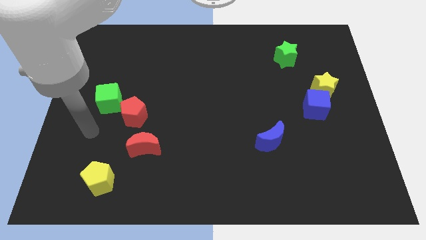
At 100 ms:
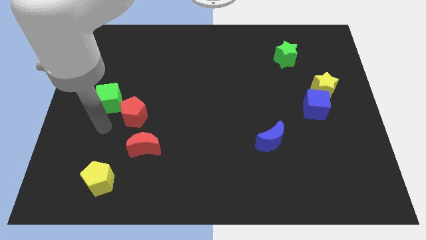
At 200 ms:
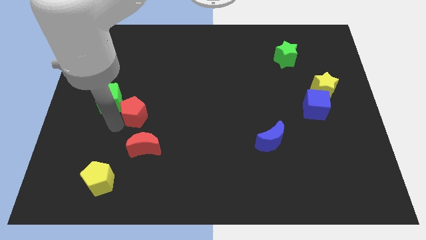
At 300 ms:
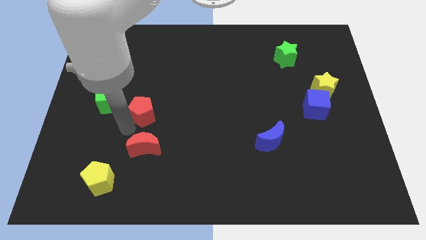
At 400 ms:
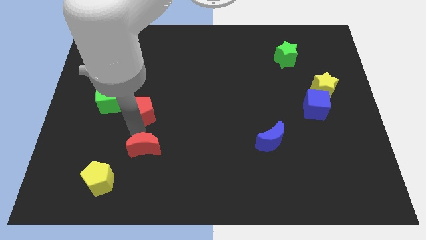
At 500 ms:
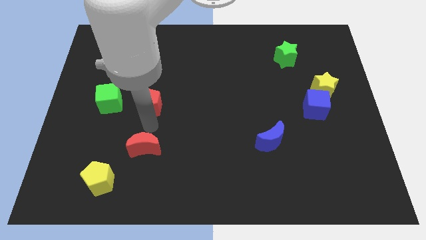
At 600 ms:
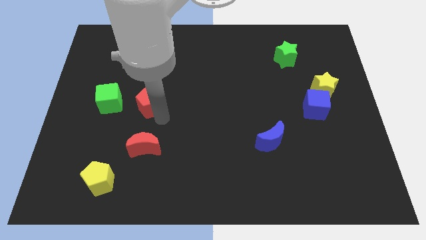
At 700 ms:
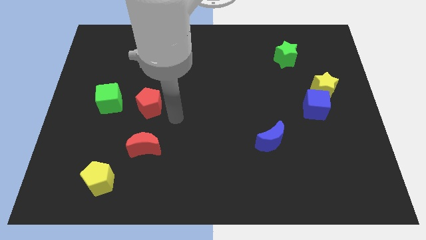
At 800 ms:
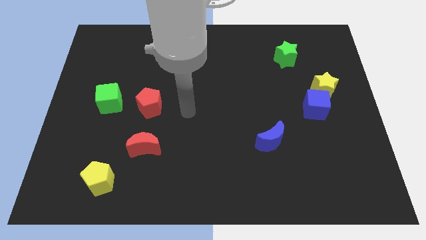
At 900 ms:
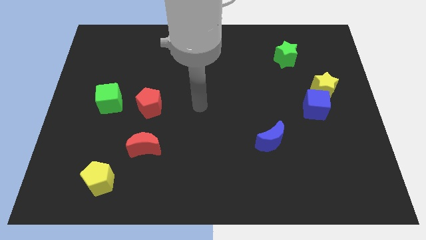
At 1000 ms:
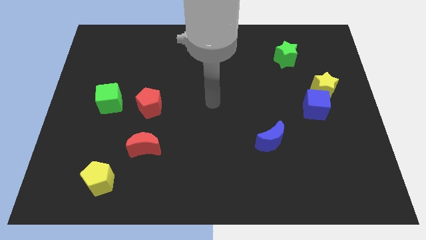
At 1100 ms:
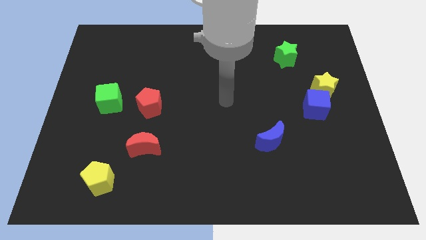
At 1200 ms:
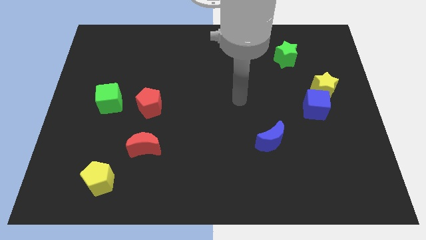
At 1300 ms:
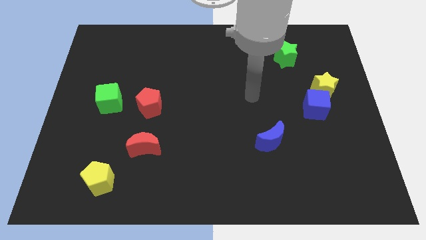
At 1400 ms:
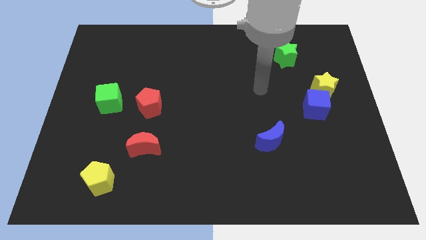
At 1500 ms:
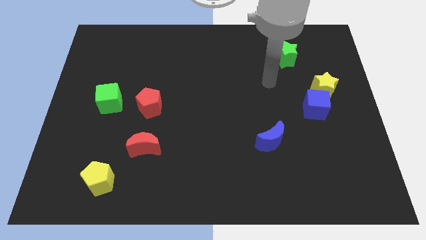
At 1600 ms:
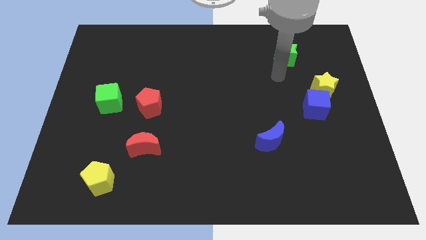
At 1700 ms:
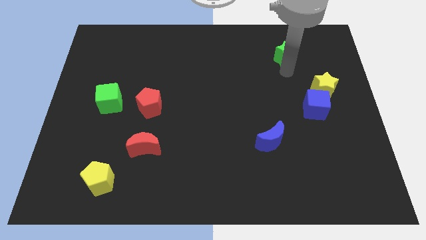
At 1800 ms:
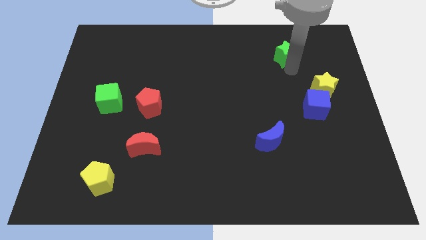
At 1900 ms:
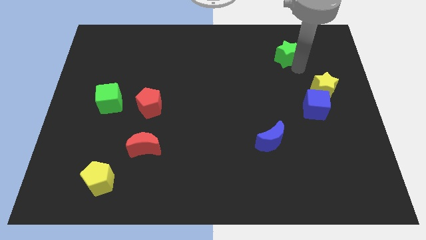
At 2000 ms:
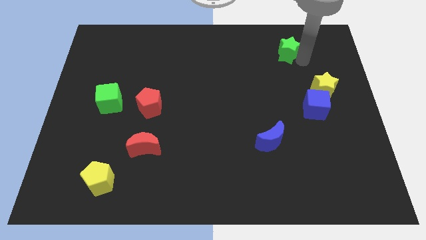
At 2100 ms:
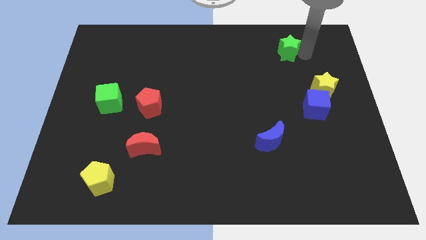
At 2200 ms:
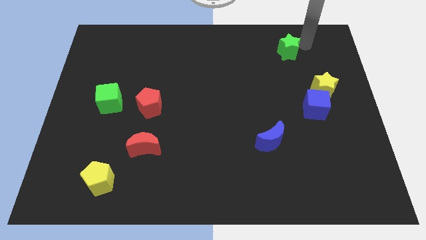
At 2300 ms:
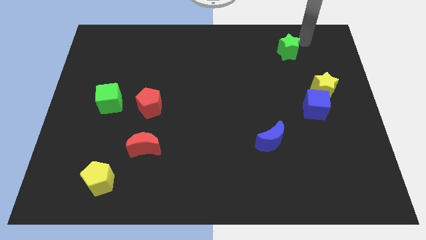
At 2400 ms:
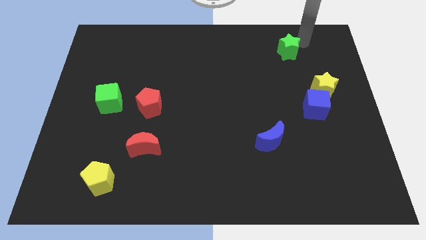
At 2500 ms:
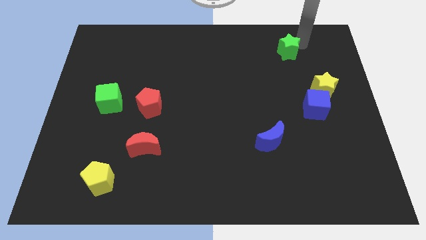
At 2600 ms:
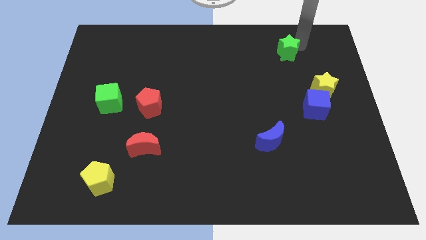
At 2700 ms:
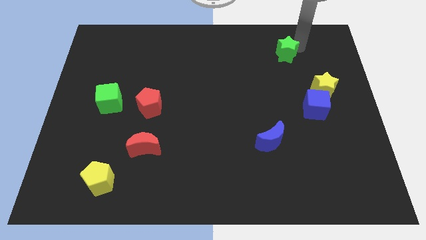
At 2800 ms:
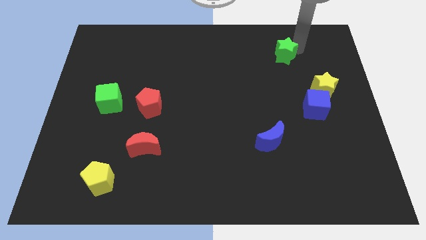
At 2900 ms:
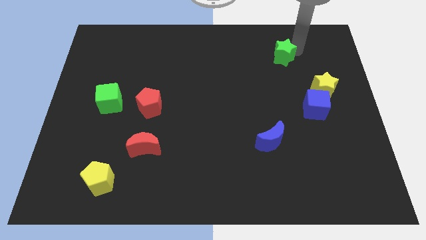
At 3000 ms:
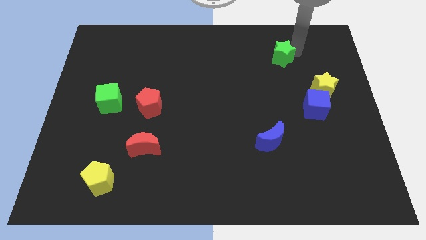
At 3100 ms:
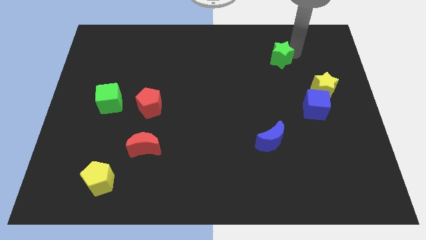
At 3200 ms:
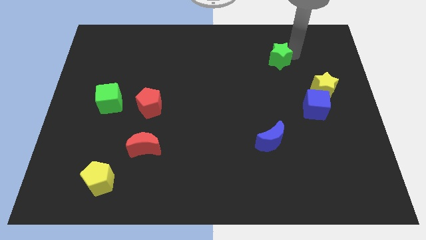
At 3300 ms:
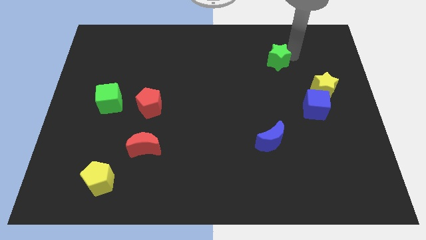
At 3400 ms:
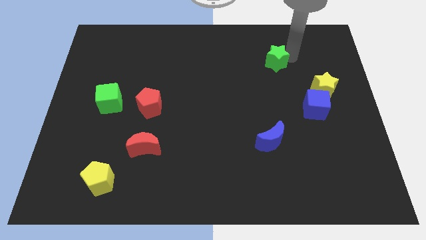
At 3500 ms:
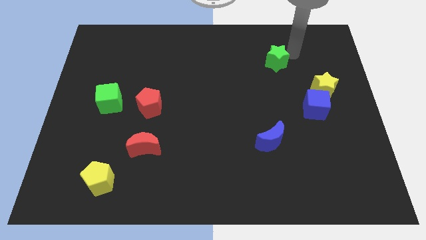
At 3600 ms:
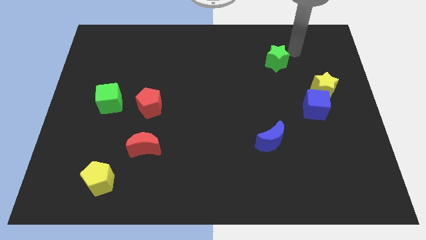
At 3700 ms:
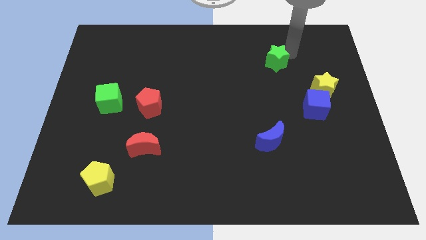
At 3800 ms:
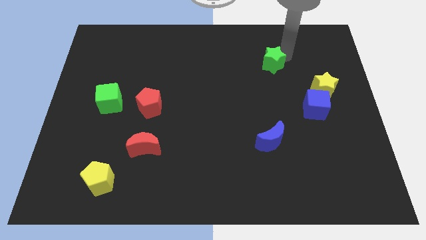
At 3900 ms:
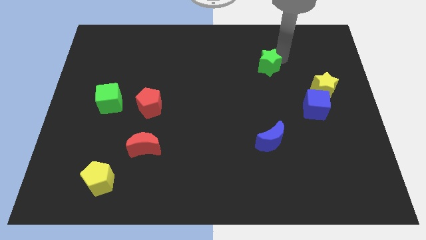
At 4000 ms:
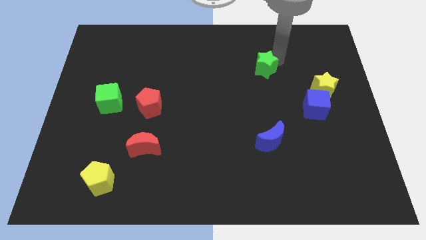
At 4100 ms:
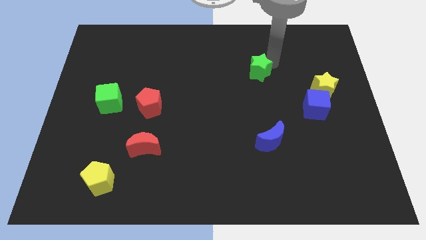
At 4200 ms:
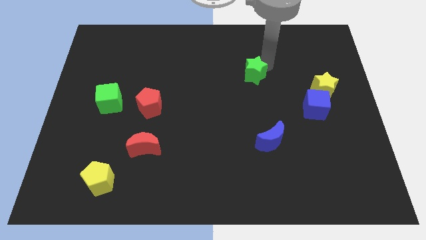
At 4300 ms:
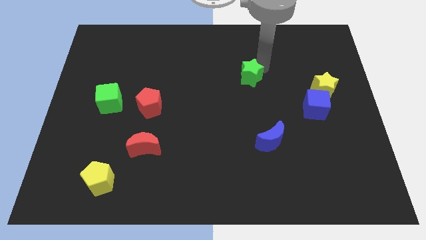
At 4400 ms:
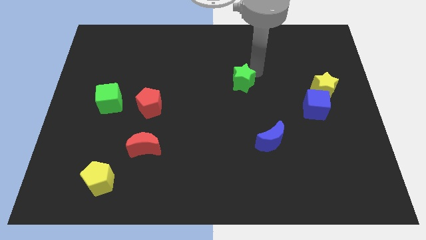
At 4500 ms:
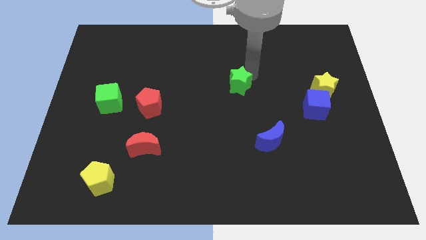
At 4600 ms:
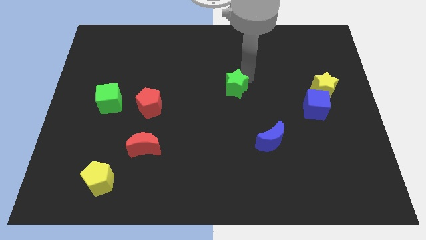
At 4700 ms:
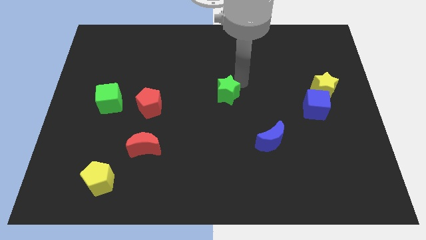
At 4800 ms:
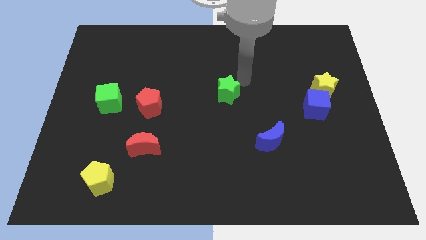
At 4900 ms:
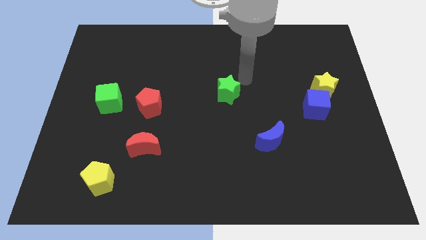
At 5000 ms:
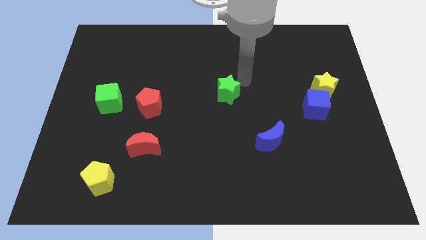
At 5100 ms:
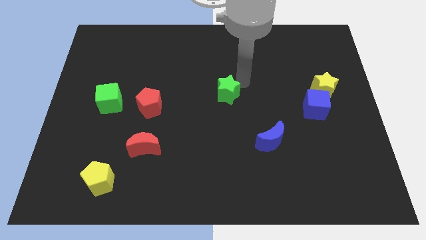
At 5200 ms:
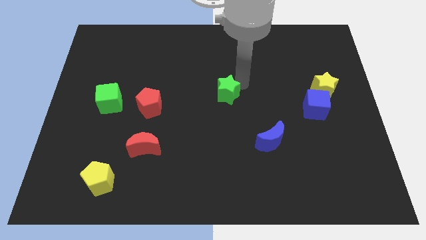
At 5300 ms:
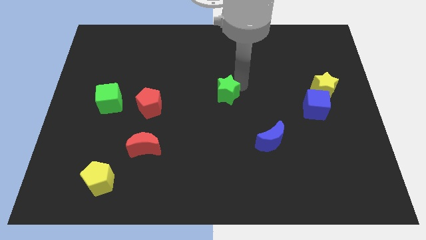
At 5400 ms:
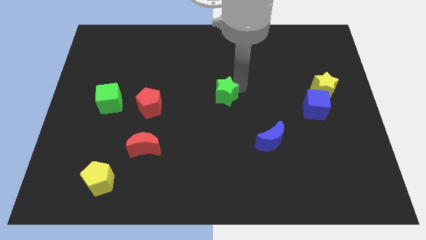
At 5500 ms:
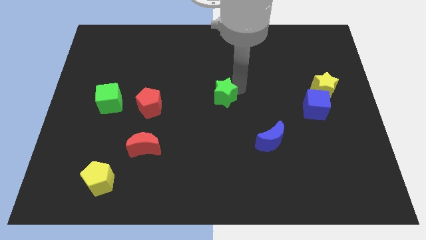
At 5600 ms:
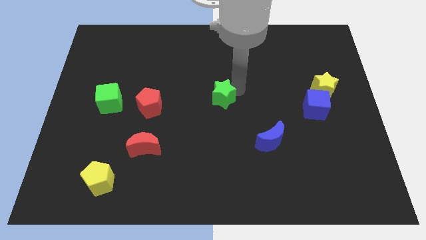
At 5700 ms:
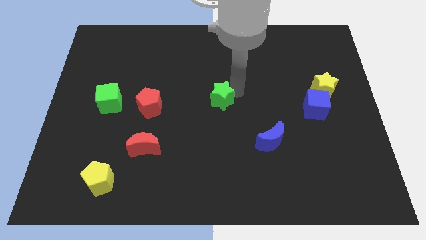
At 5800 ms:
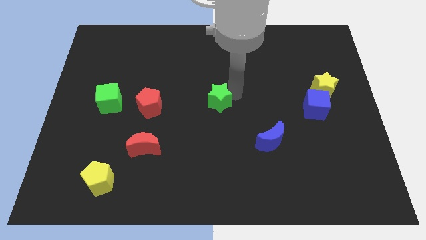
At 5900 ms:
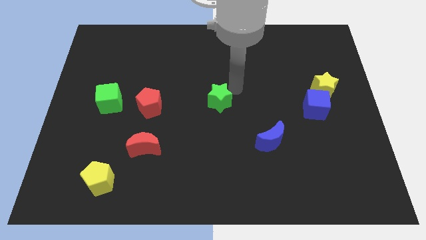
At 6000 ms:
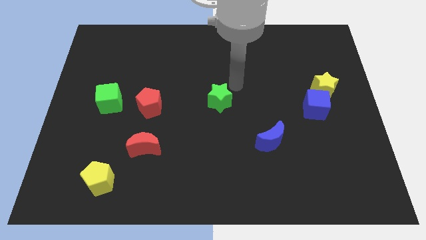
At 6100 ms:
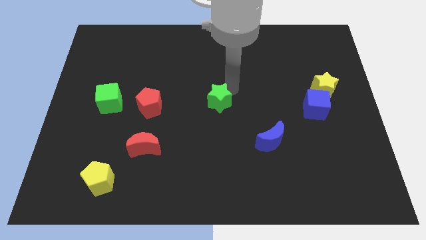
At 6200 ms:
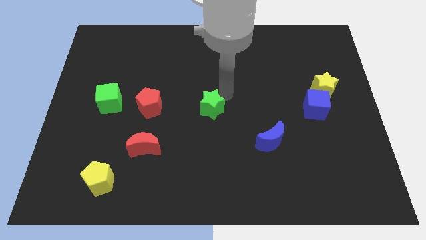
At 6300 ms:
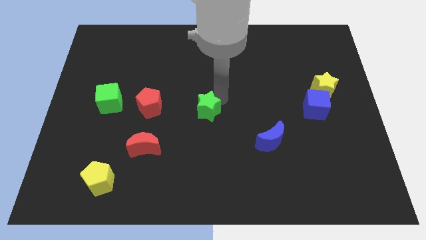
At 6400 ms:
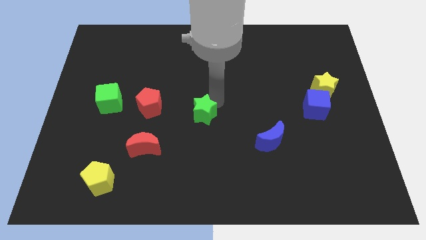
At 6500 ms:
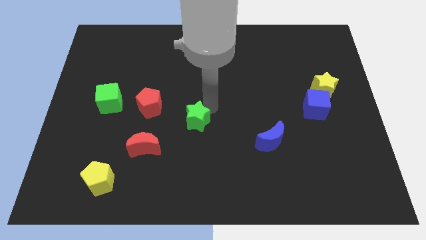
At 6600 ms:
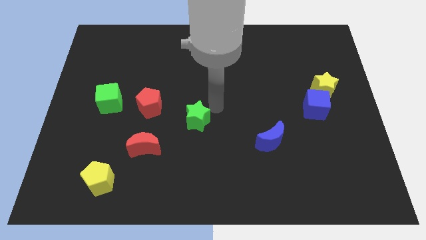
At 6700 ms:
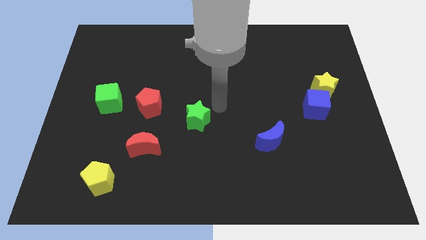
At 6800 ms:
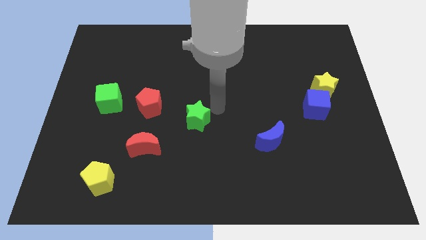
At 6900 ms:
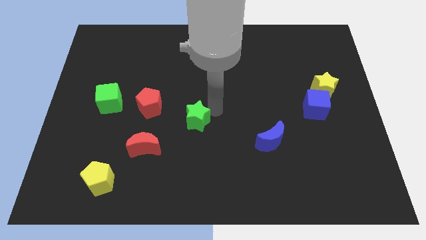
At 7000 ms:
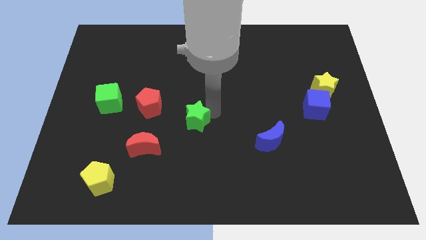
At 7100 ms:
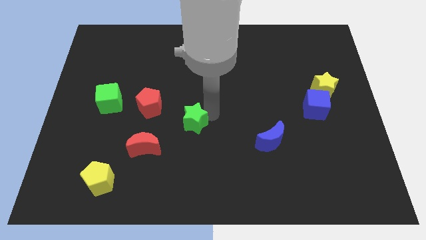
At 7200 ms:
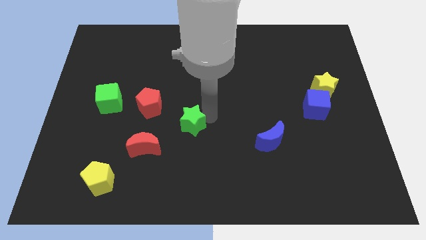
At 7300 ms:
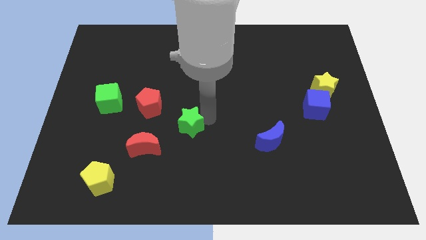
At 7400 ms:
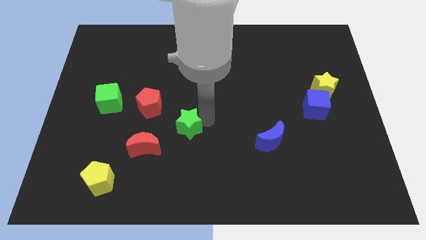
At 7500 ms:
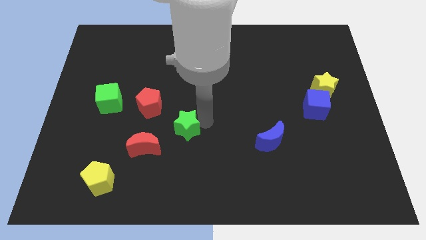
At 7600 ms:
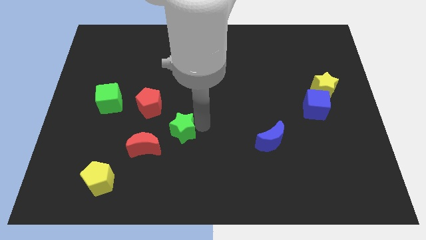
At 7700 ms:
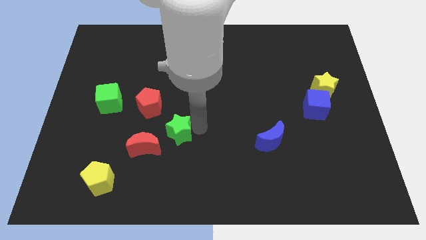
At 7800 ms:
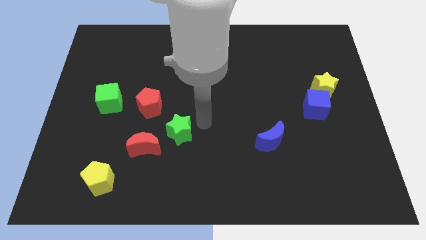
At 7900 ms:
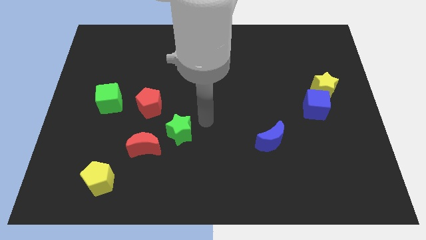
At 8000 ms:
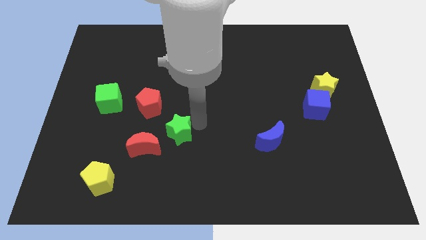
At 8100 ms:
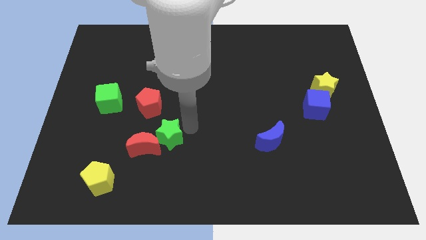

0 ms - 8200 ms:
put the green star next to the red moon
